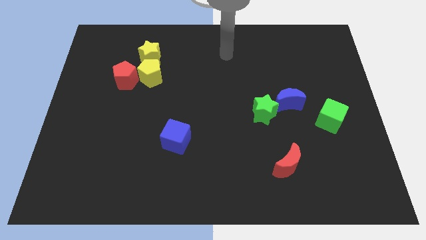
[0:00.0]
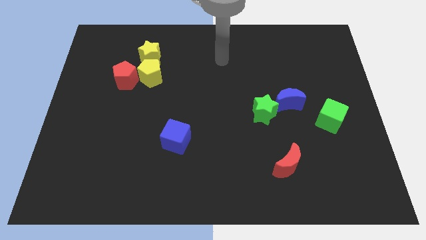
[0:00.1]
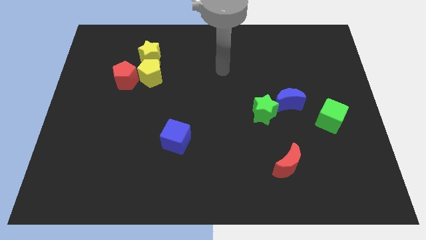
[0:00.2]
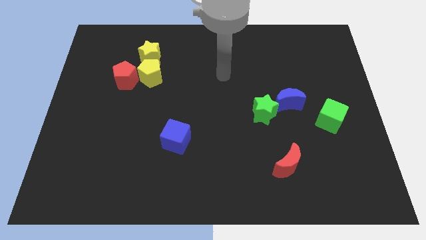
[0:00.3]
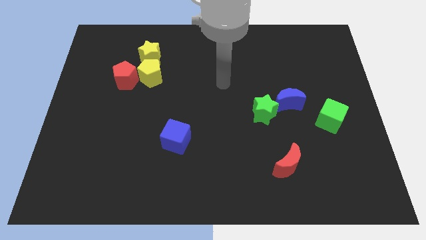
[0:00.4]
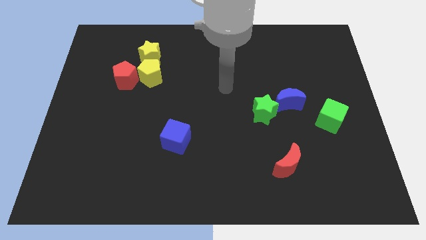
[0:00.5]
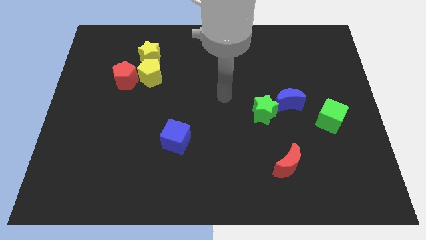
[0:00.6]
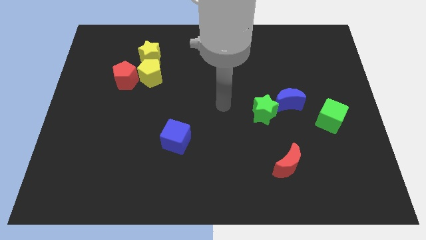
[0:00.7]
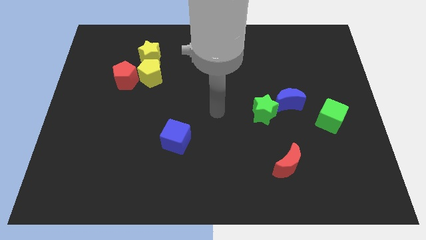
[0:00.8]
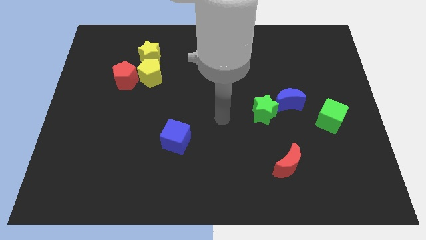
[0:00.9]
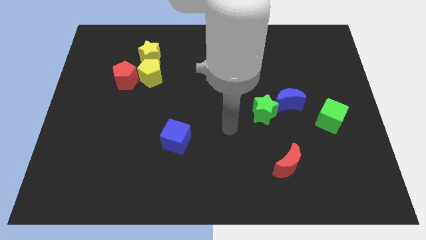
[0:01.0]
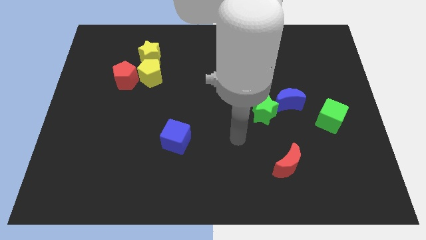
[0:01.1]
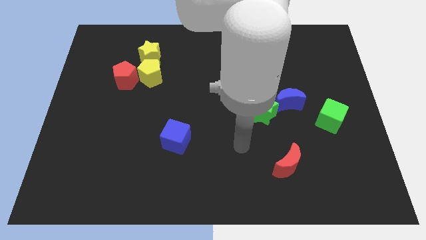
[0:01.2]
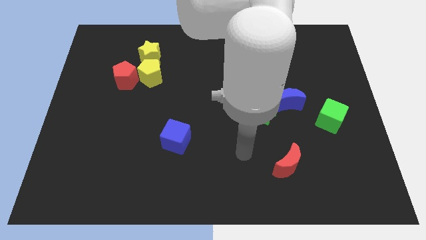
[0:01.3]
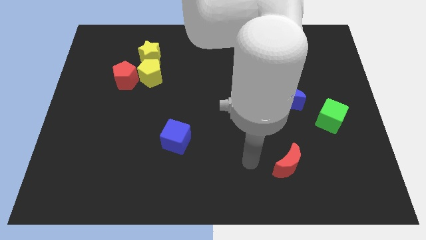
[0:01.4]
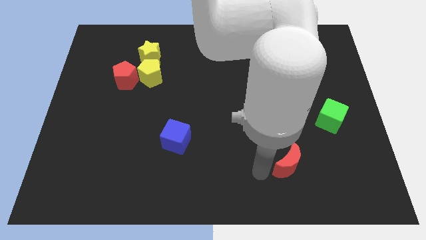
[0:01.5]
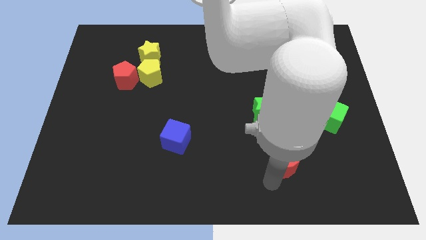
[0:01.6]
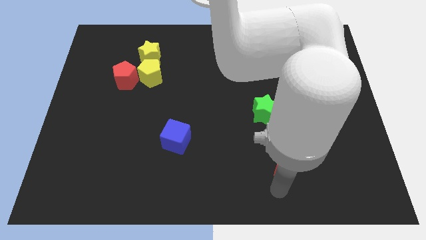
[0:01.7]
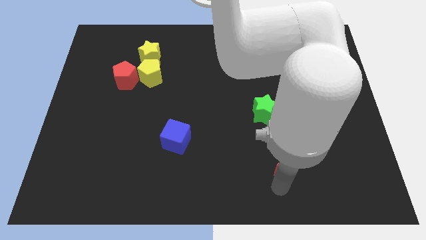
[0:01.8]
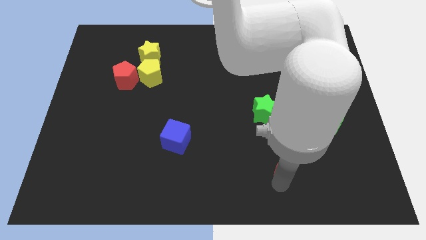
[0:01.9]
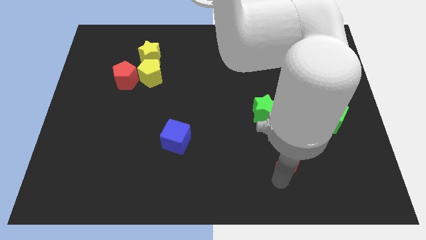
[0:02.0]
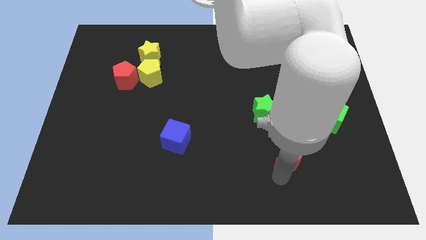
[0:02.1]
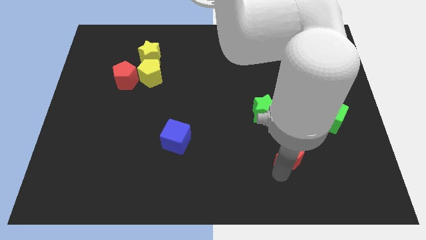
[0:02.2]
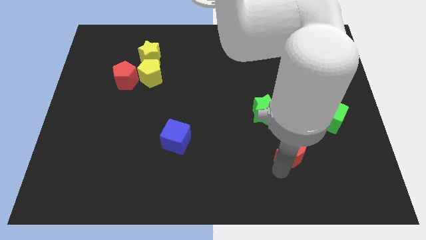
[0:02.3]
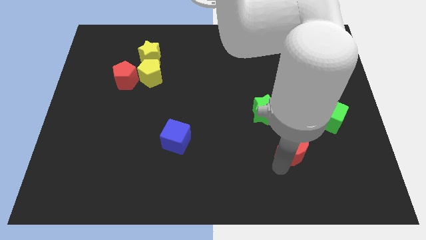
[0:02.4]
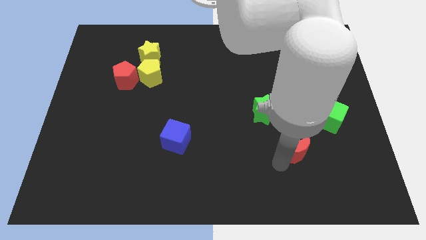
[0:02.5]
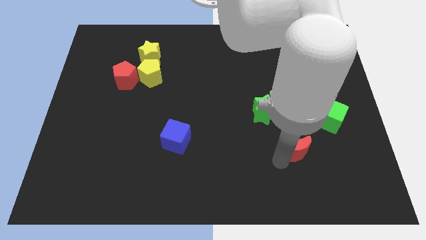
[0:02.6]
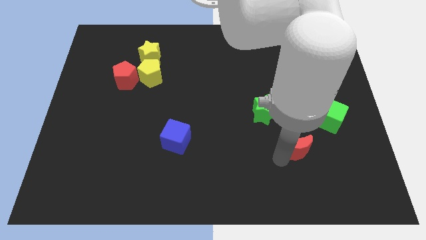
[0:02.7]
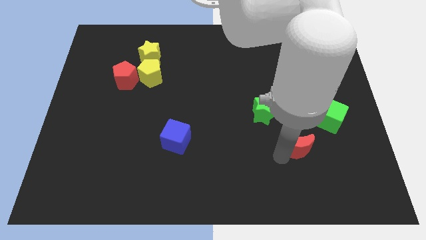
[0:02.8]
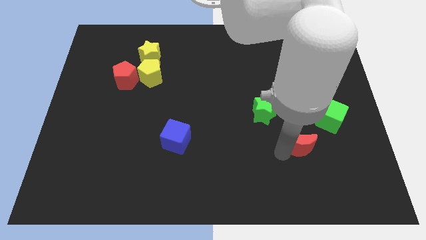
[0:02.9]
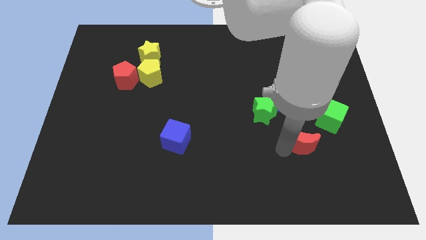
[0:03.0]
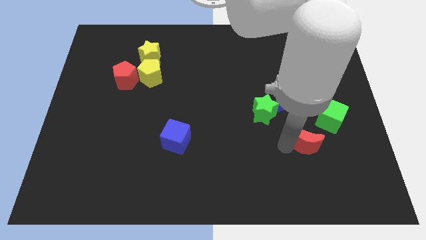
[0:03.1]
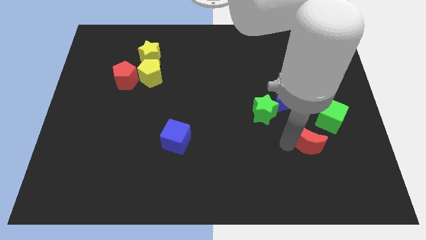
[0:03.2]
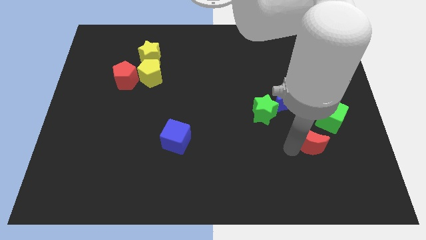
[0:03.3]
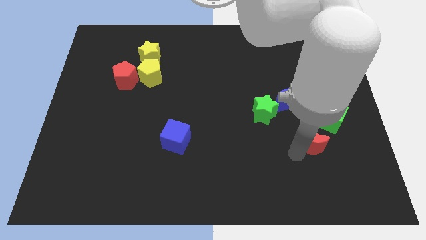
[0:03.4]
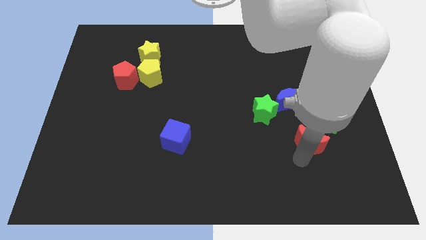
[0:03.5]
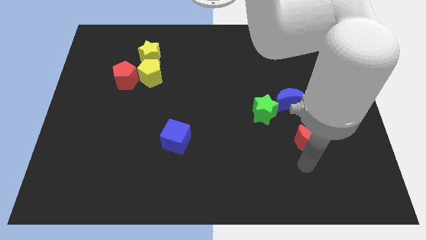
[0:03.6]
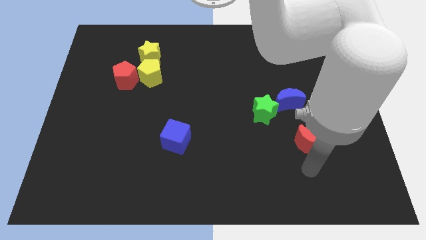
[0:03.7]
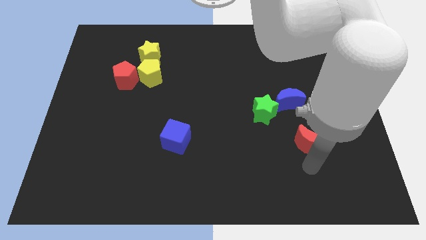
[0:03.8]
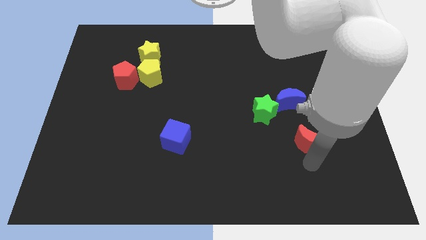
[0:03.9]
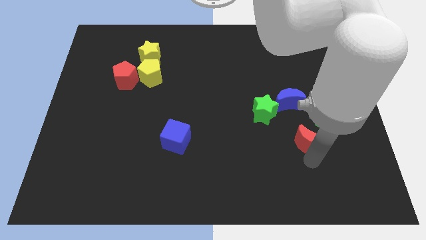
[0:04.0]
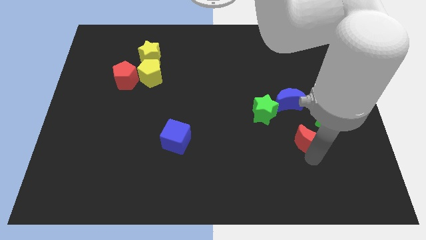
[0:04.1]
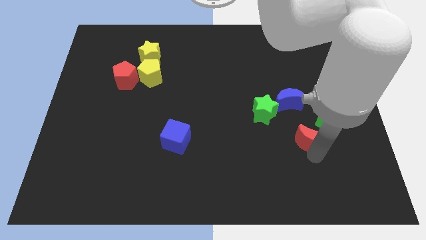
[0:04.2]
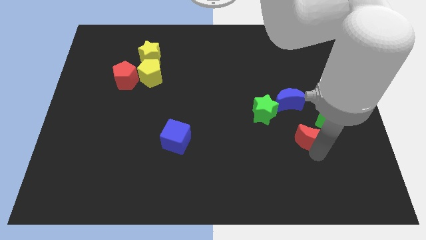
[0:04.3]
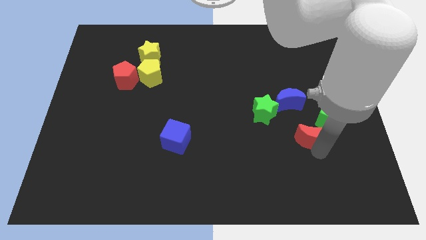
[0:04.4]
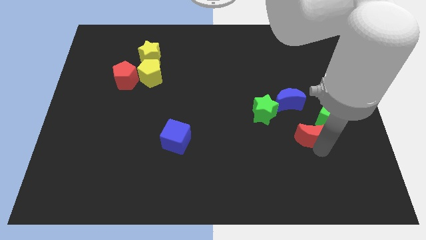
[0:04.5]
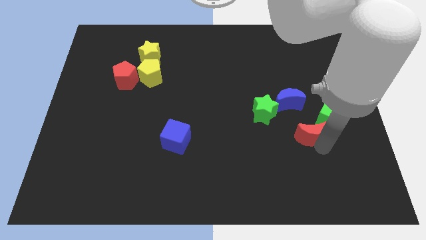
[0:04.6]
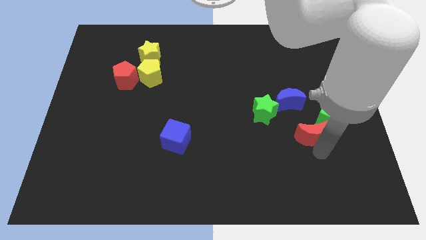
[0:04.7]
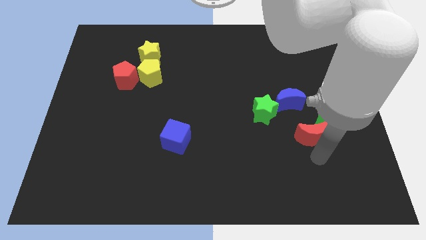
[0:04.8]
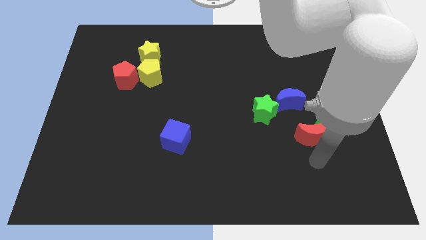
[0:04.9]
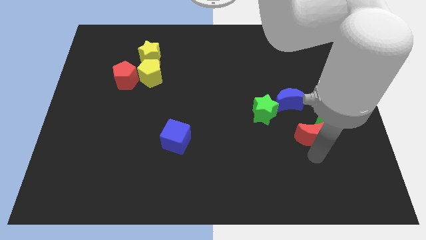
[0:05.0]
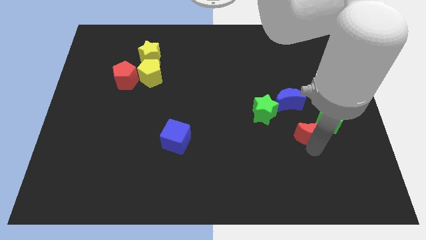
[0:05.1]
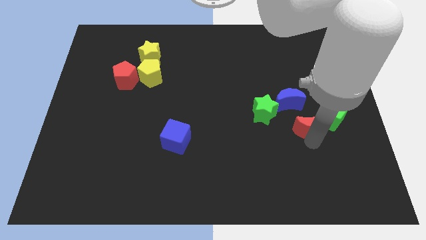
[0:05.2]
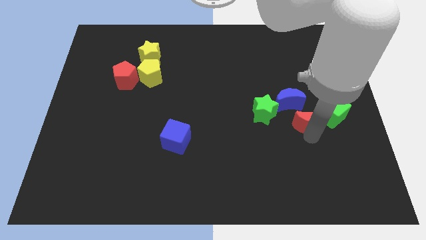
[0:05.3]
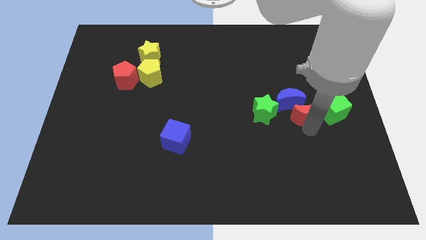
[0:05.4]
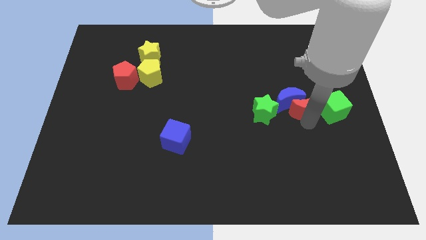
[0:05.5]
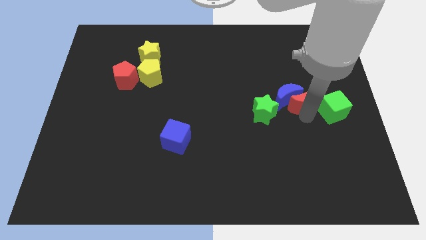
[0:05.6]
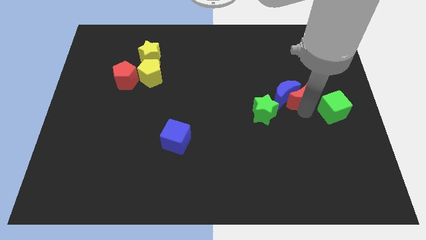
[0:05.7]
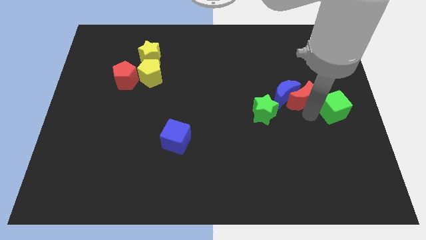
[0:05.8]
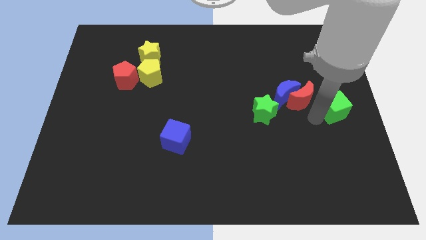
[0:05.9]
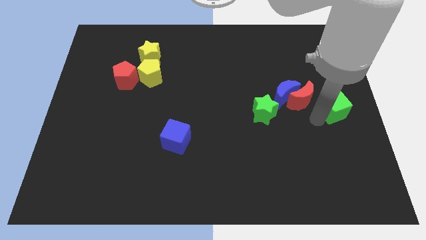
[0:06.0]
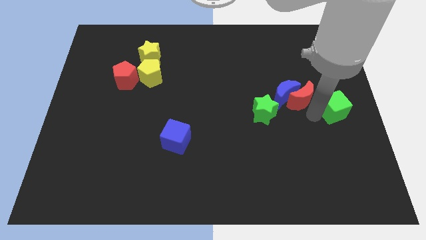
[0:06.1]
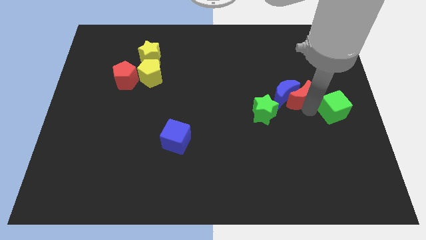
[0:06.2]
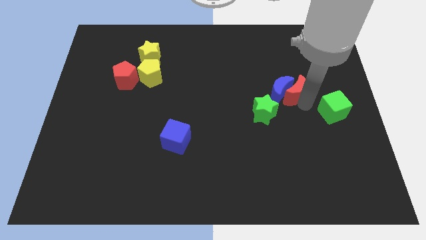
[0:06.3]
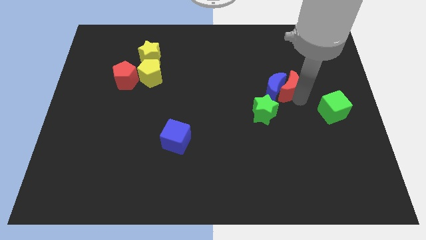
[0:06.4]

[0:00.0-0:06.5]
push the red moon upwards

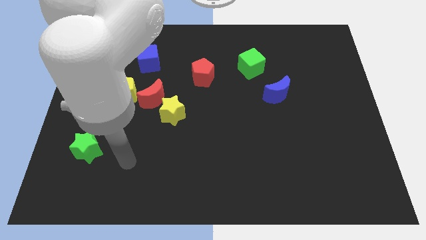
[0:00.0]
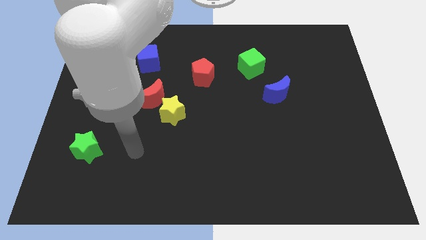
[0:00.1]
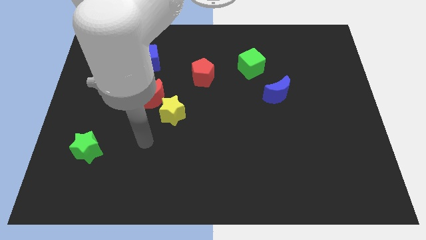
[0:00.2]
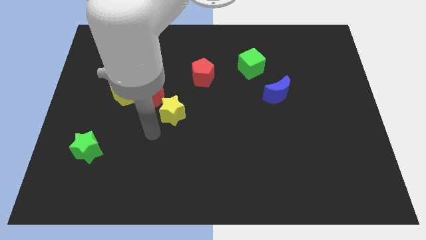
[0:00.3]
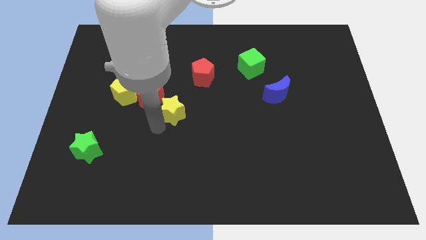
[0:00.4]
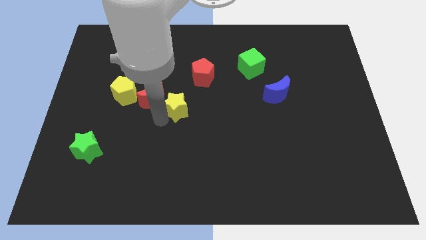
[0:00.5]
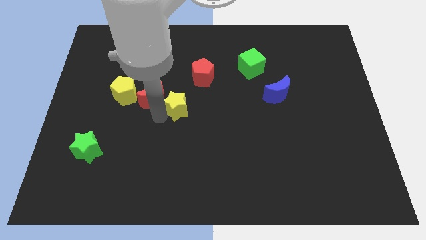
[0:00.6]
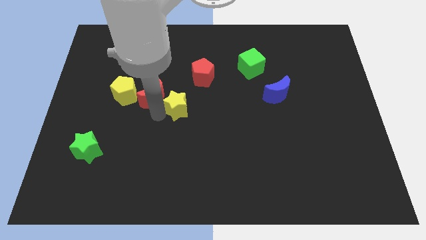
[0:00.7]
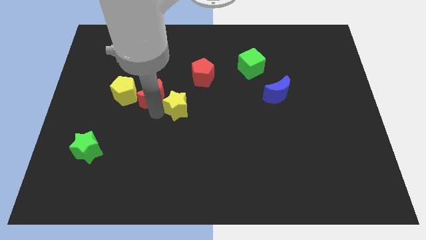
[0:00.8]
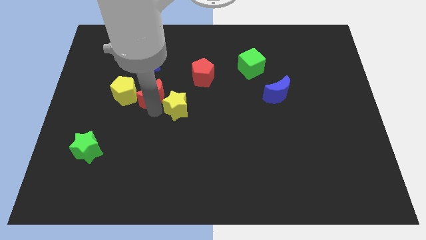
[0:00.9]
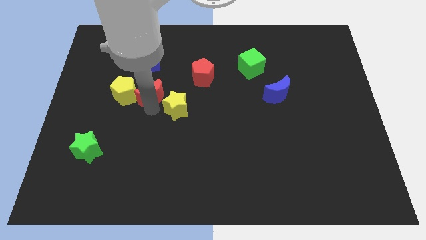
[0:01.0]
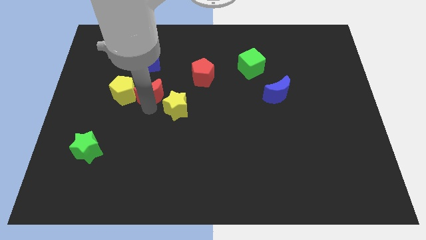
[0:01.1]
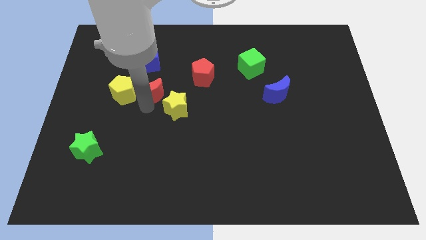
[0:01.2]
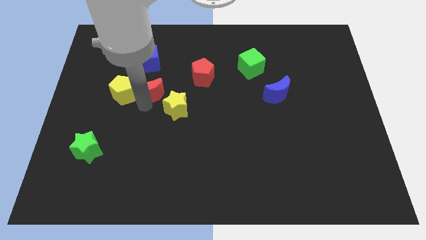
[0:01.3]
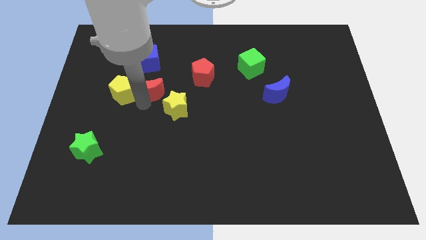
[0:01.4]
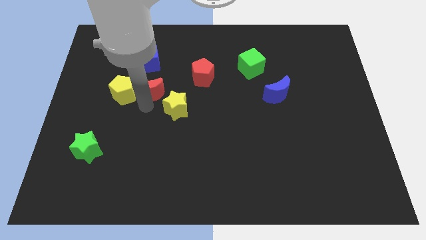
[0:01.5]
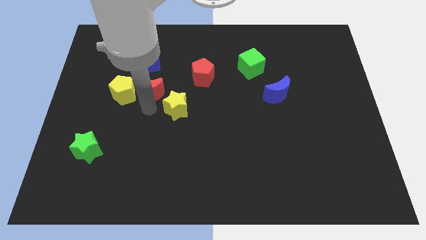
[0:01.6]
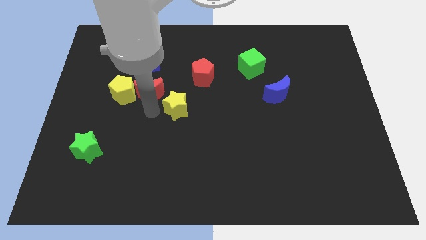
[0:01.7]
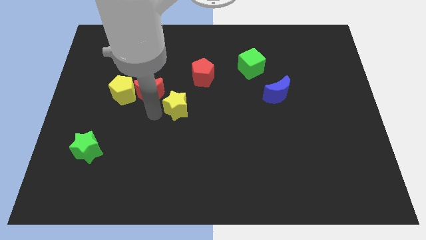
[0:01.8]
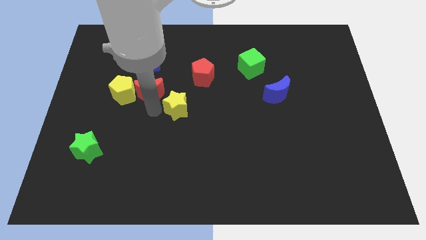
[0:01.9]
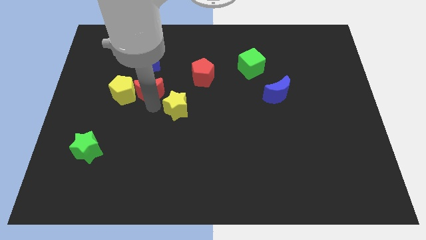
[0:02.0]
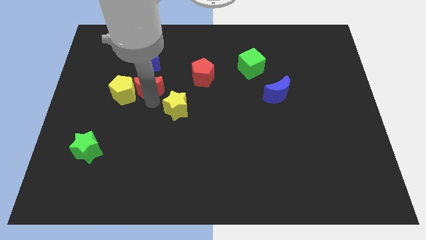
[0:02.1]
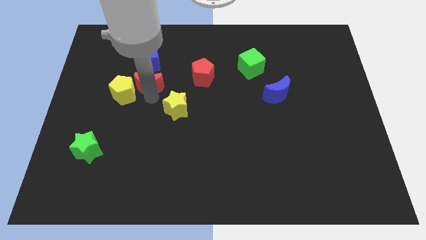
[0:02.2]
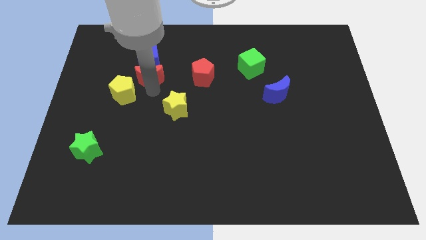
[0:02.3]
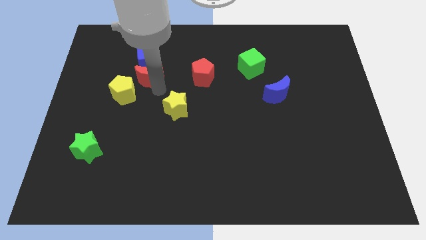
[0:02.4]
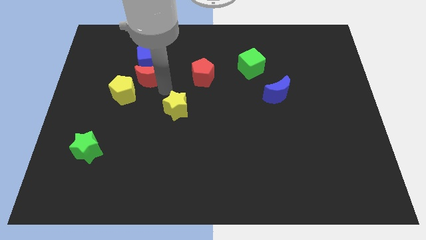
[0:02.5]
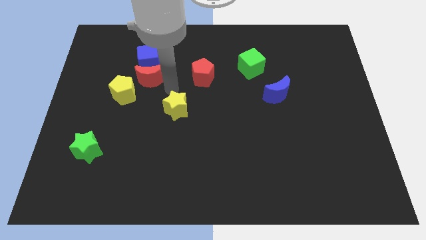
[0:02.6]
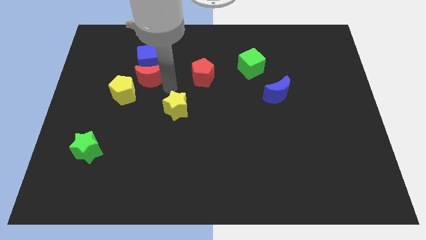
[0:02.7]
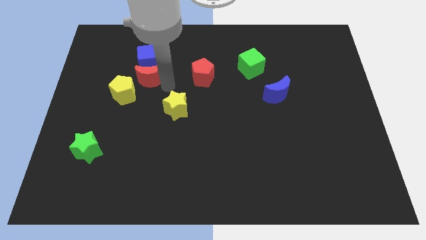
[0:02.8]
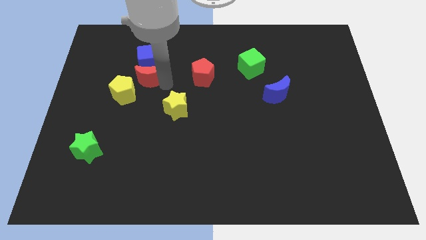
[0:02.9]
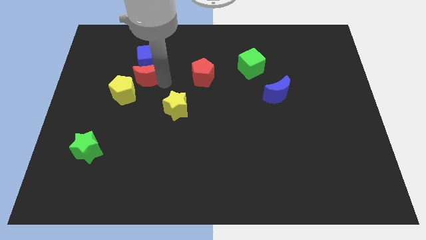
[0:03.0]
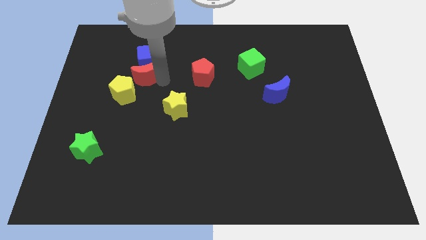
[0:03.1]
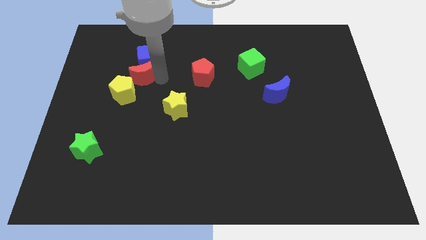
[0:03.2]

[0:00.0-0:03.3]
move the red moon upwards and left a little
